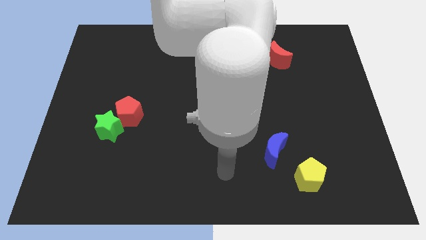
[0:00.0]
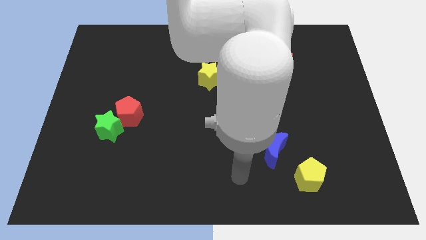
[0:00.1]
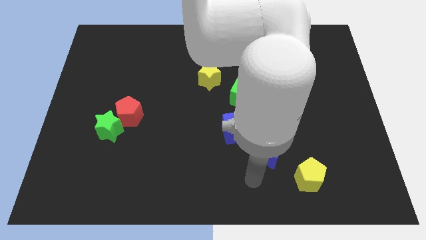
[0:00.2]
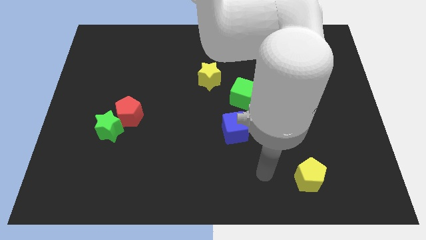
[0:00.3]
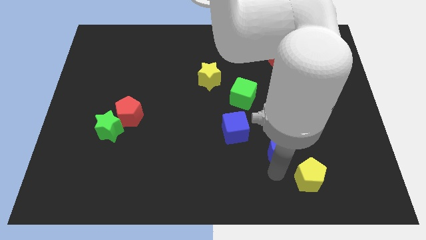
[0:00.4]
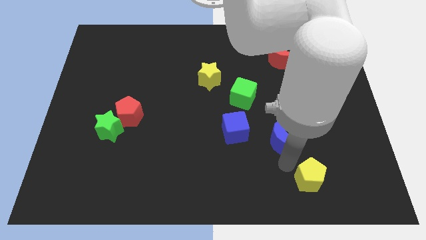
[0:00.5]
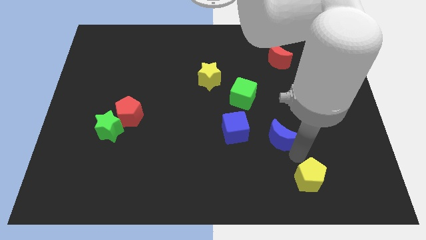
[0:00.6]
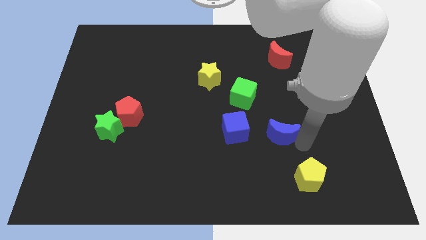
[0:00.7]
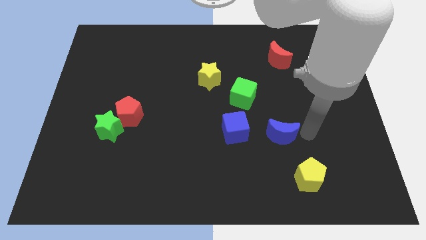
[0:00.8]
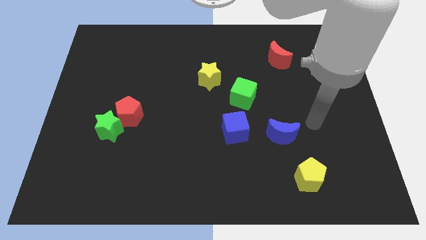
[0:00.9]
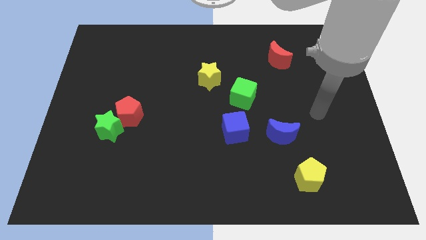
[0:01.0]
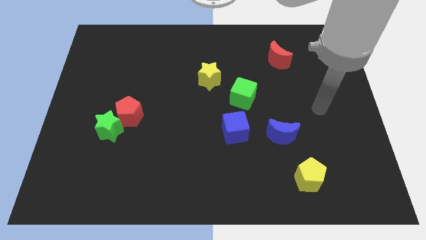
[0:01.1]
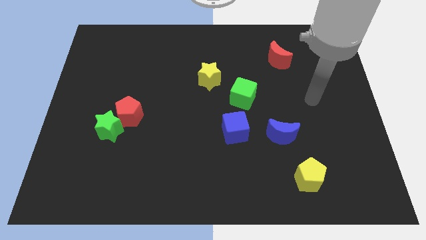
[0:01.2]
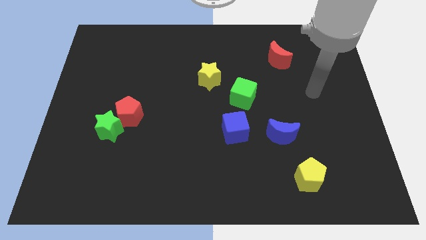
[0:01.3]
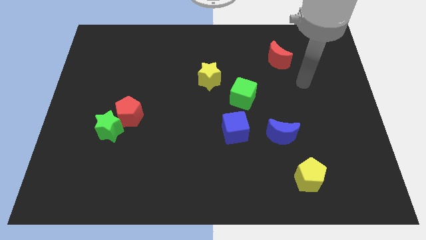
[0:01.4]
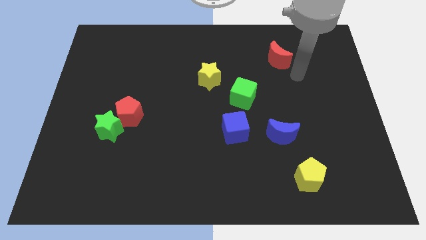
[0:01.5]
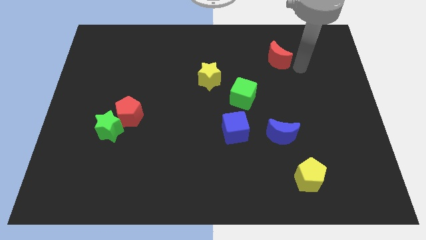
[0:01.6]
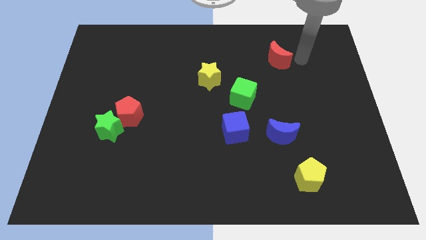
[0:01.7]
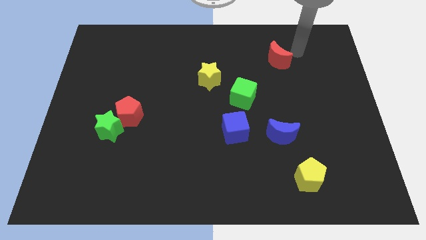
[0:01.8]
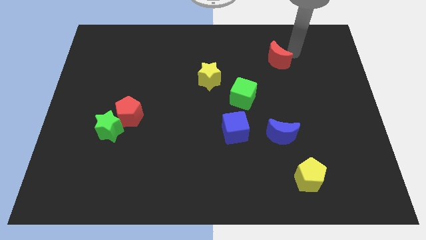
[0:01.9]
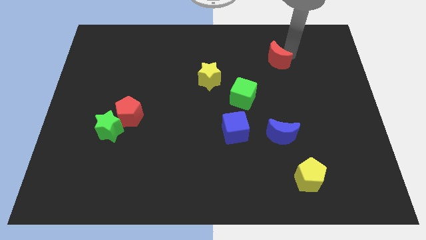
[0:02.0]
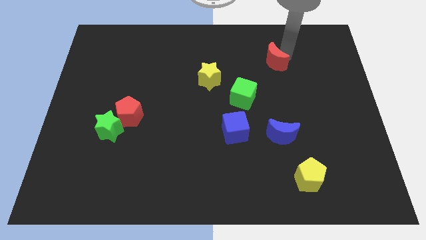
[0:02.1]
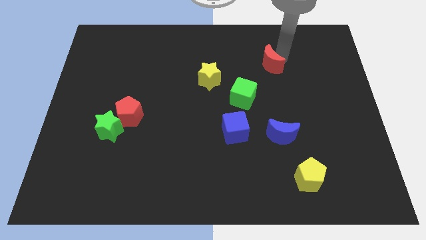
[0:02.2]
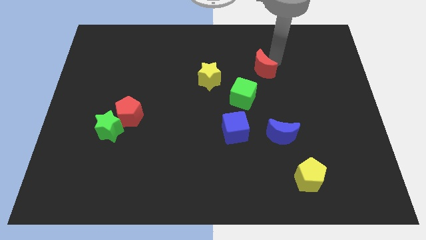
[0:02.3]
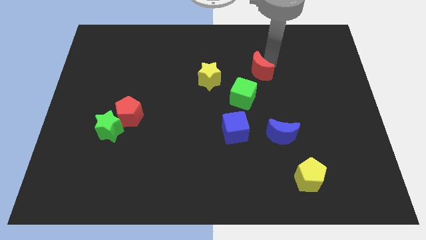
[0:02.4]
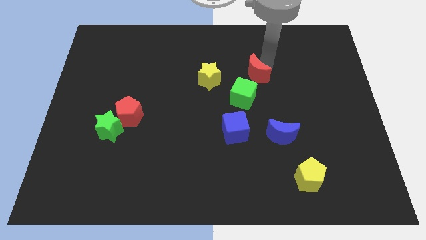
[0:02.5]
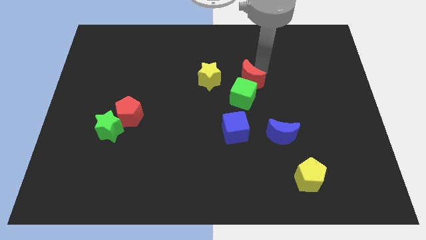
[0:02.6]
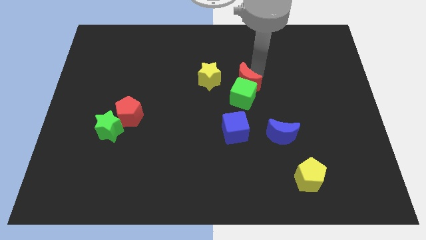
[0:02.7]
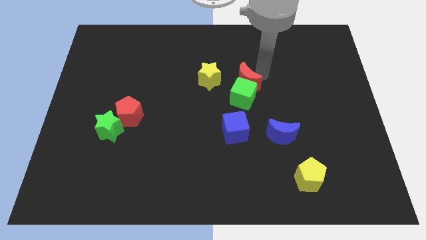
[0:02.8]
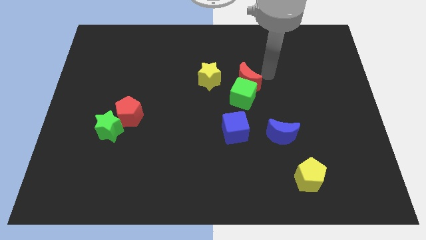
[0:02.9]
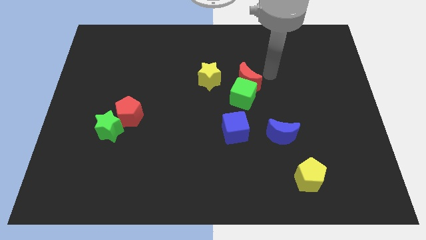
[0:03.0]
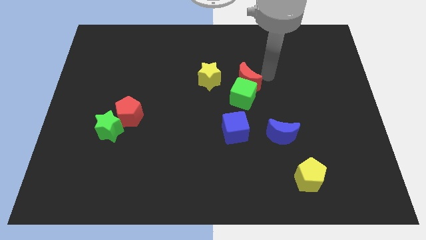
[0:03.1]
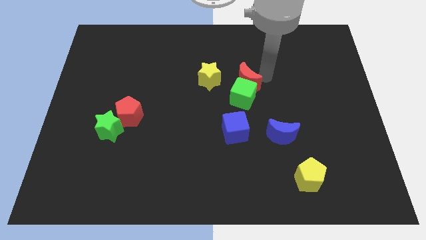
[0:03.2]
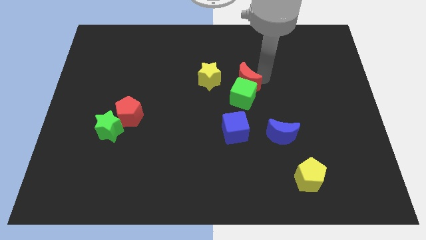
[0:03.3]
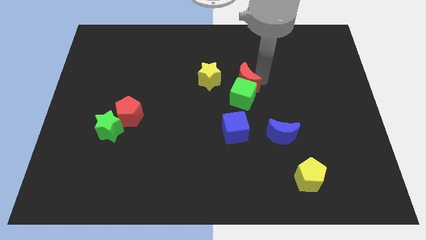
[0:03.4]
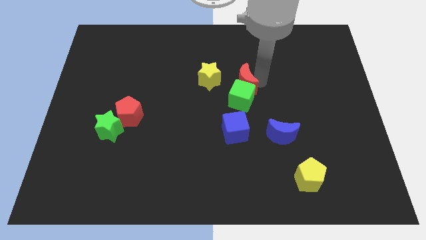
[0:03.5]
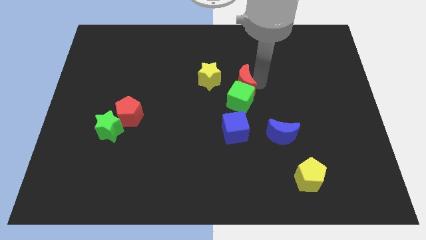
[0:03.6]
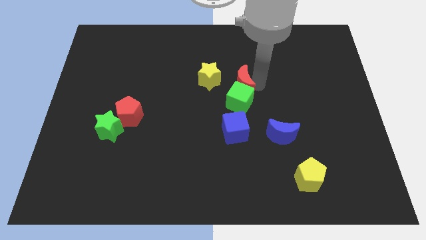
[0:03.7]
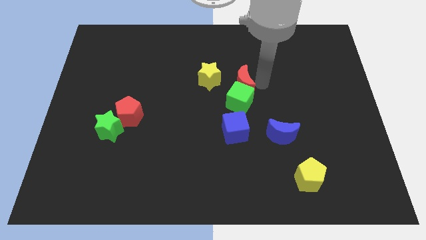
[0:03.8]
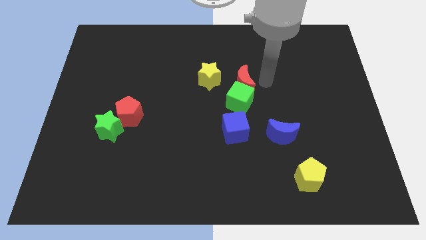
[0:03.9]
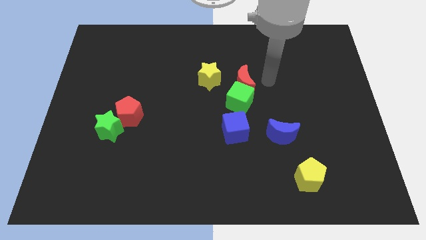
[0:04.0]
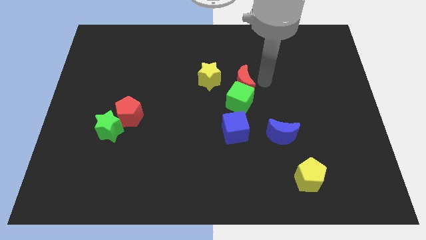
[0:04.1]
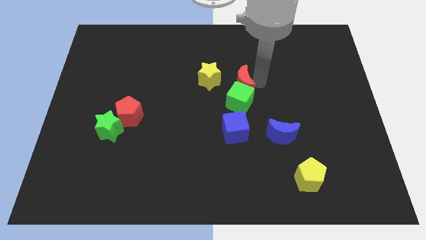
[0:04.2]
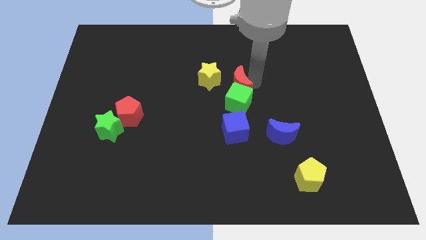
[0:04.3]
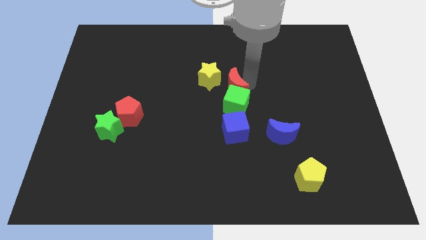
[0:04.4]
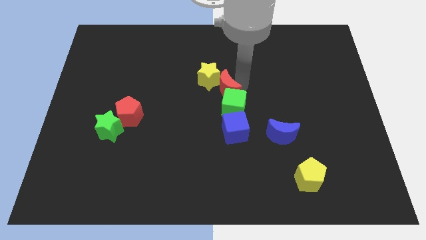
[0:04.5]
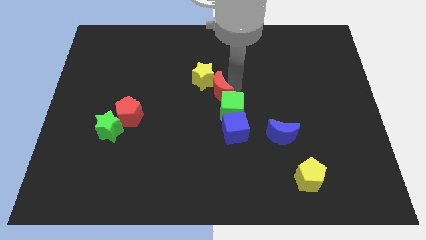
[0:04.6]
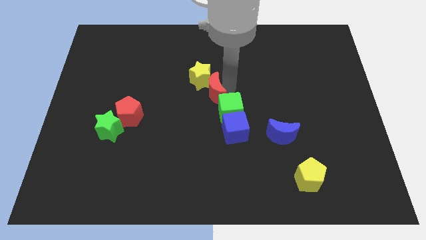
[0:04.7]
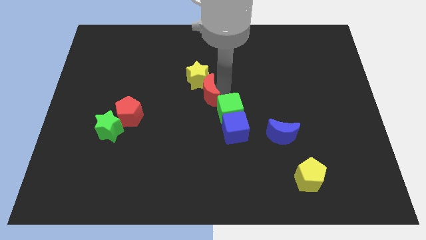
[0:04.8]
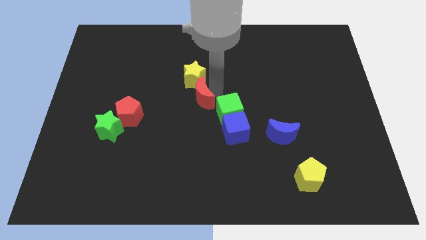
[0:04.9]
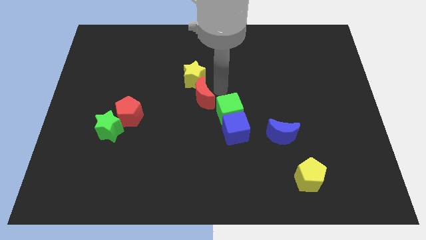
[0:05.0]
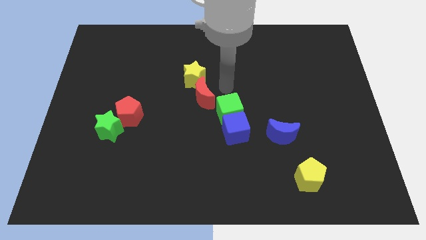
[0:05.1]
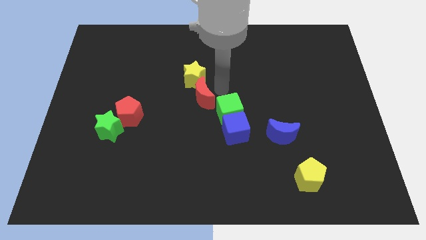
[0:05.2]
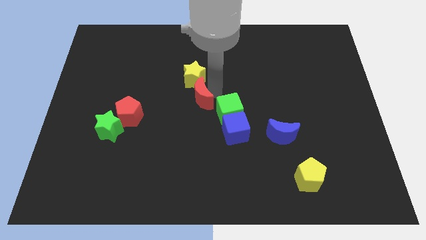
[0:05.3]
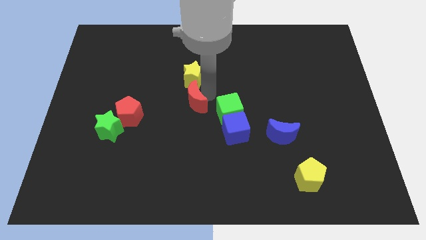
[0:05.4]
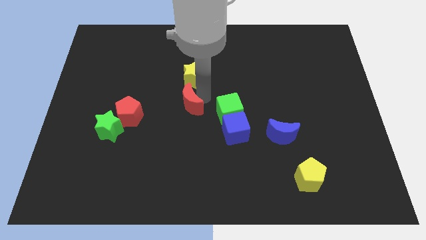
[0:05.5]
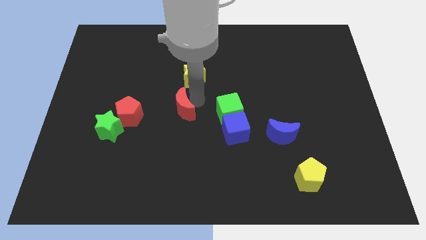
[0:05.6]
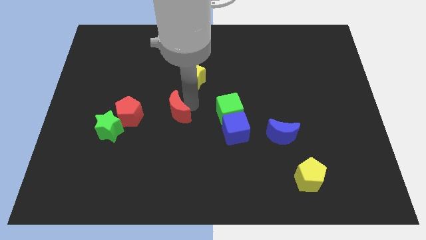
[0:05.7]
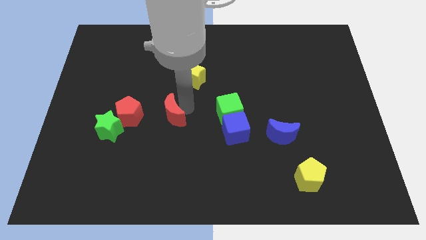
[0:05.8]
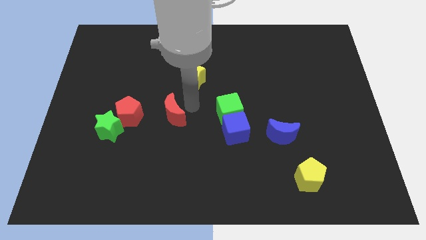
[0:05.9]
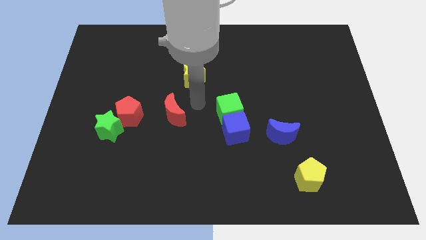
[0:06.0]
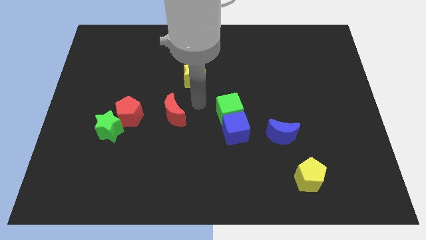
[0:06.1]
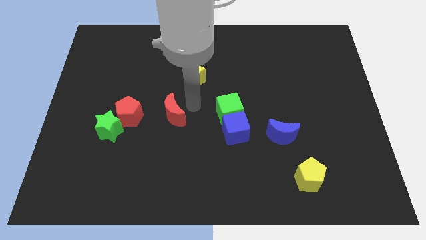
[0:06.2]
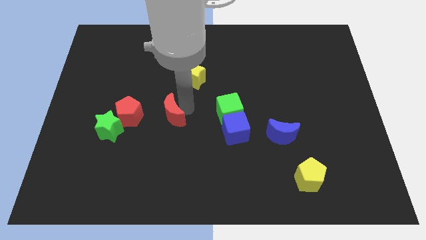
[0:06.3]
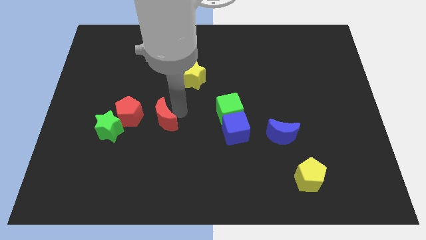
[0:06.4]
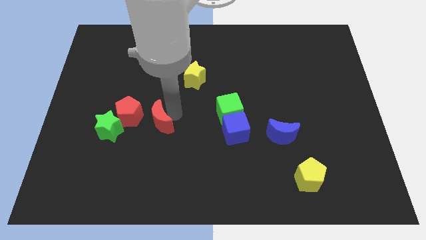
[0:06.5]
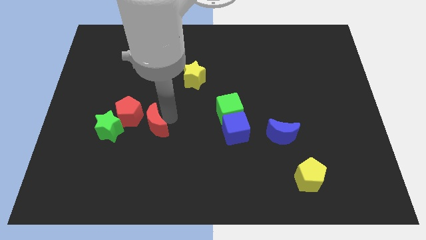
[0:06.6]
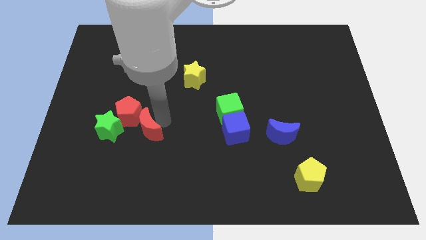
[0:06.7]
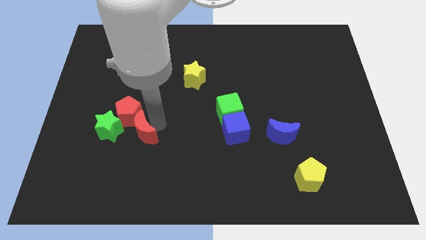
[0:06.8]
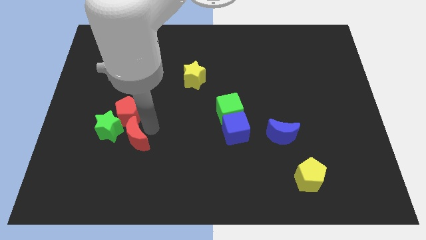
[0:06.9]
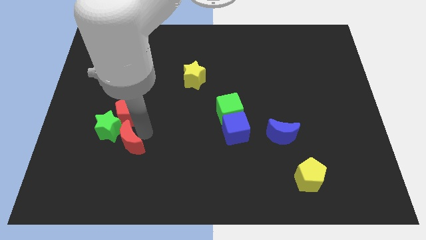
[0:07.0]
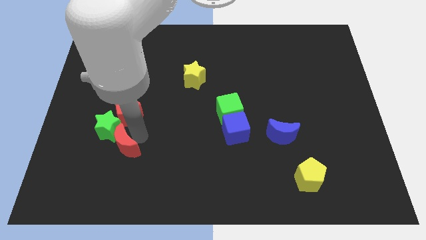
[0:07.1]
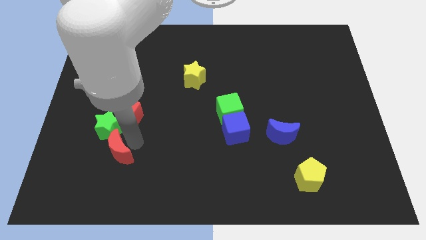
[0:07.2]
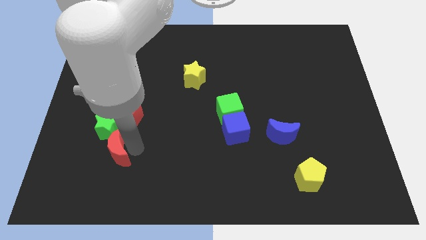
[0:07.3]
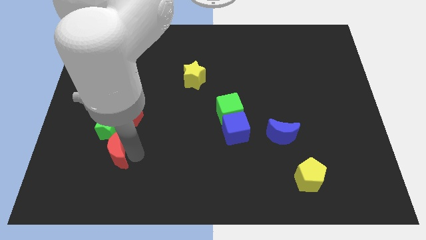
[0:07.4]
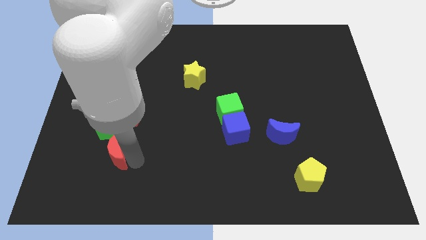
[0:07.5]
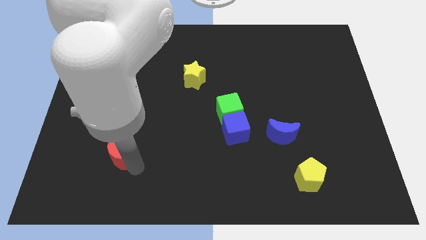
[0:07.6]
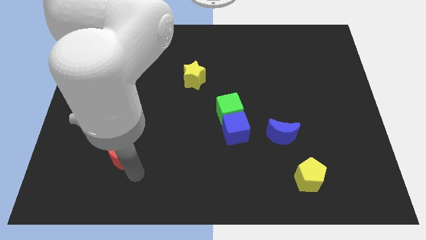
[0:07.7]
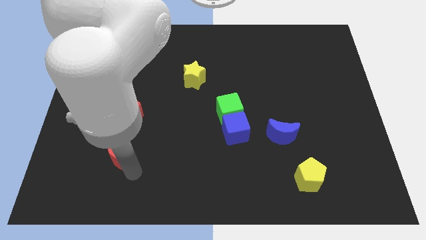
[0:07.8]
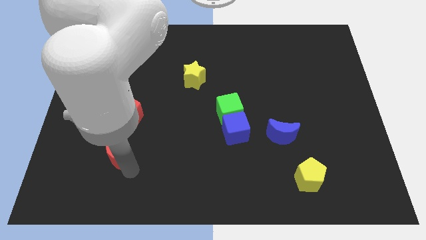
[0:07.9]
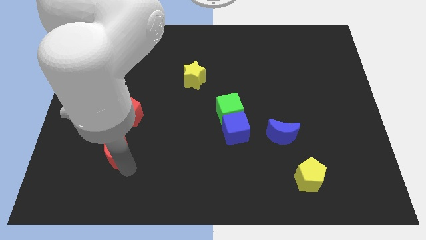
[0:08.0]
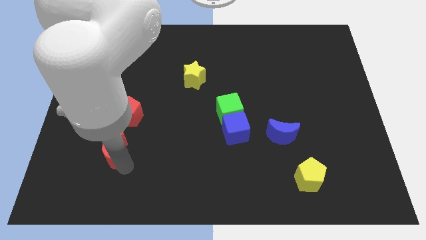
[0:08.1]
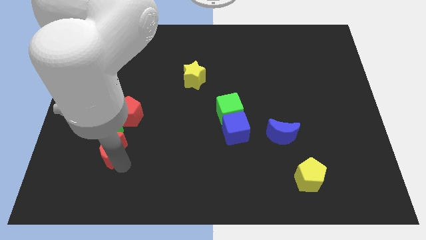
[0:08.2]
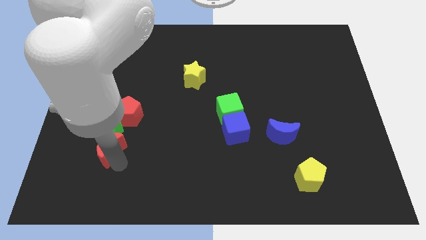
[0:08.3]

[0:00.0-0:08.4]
slide the red moon diagonally down and to the left of the red pentagon
